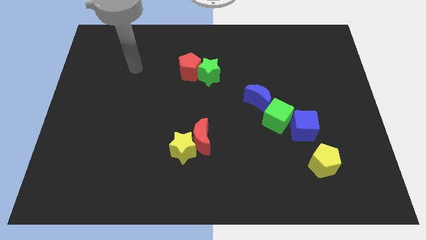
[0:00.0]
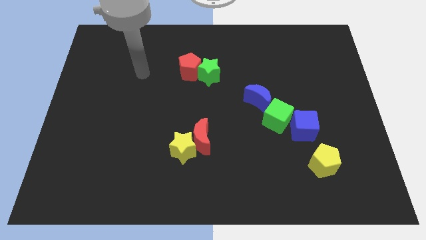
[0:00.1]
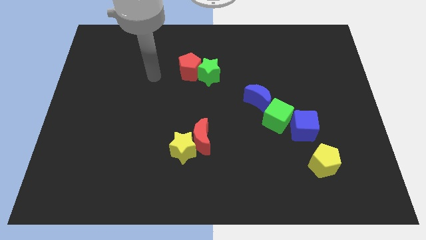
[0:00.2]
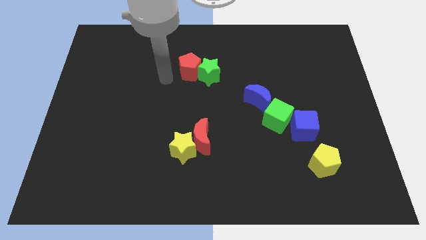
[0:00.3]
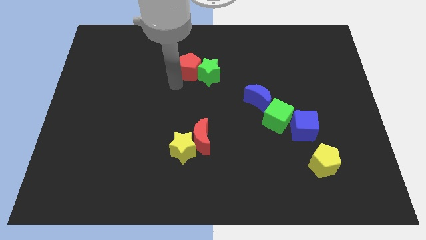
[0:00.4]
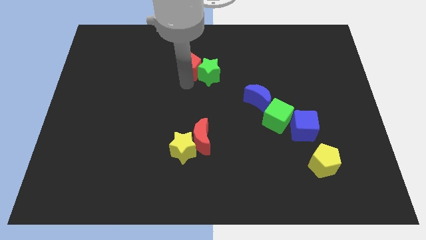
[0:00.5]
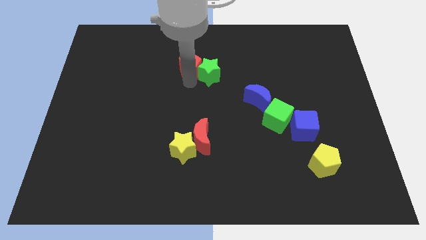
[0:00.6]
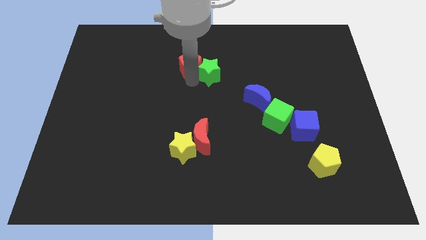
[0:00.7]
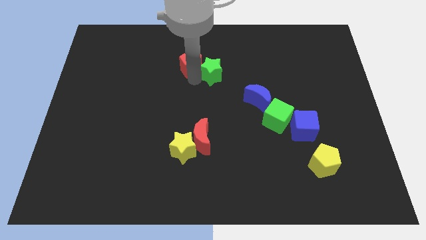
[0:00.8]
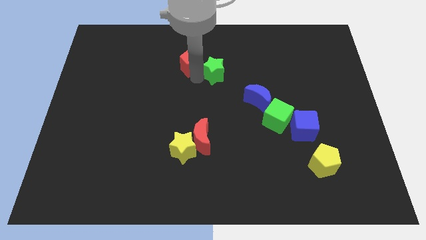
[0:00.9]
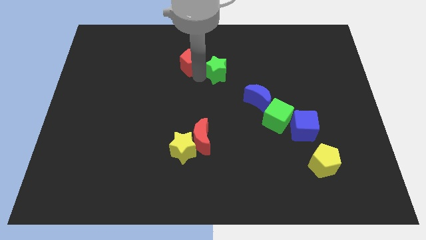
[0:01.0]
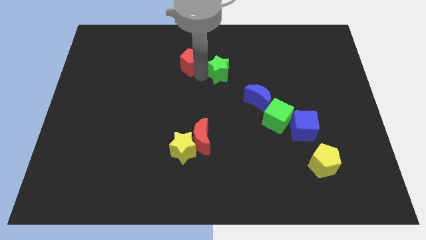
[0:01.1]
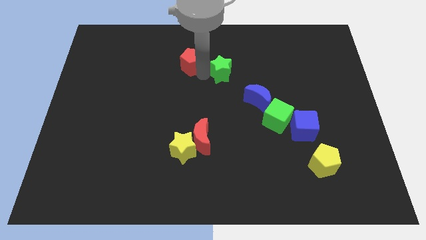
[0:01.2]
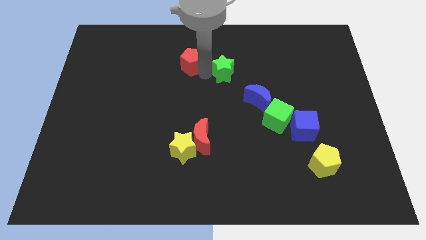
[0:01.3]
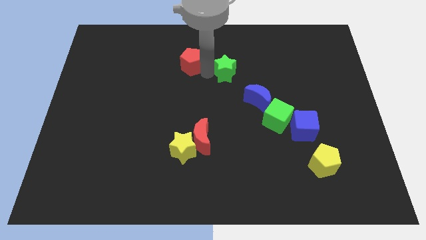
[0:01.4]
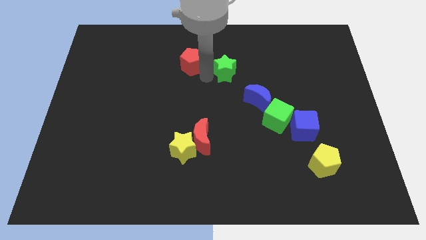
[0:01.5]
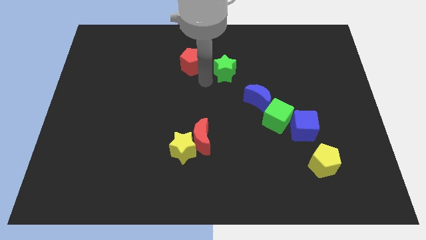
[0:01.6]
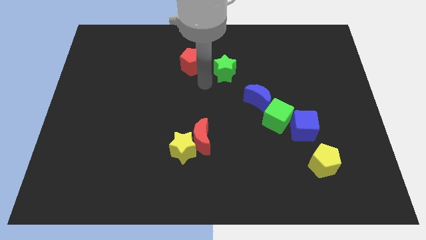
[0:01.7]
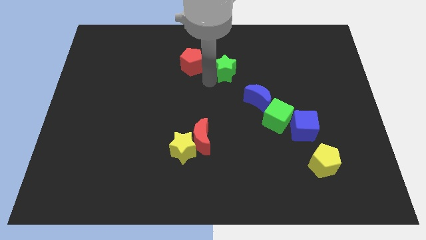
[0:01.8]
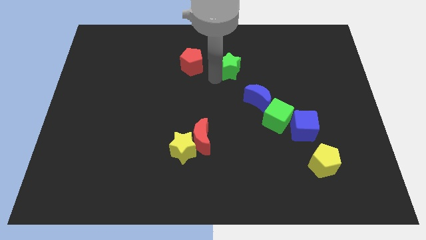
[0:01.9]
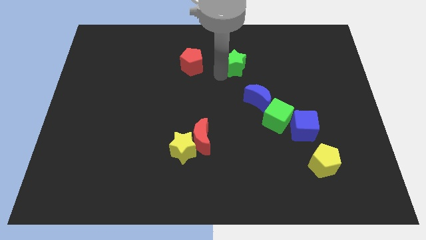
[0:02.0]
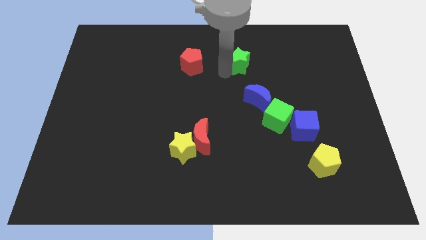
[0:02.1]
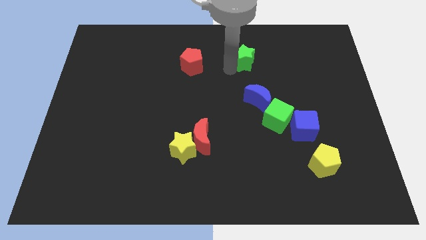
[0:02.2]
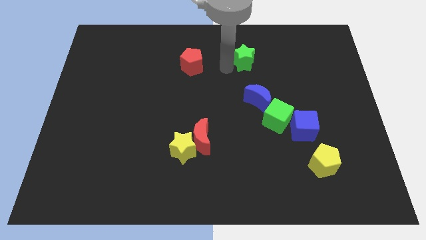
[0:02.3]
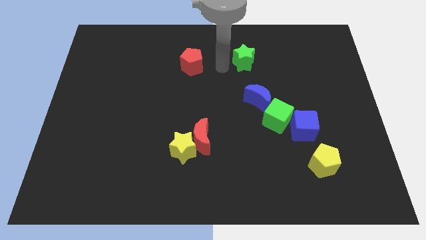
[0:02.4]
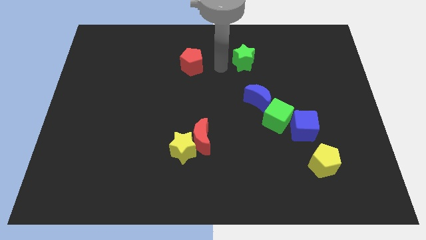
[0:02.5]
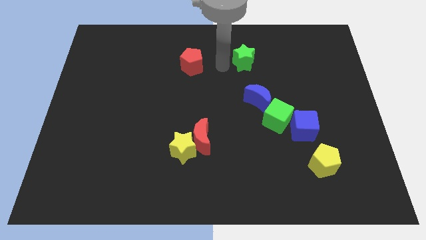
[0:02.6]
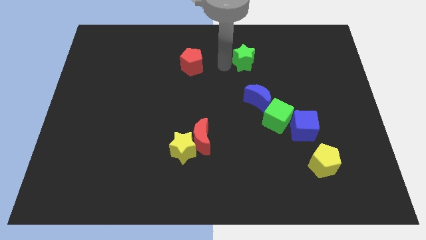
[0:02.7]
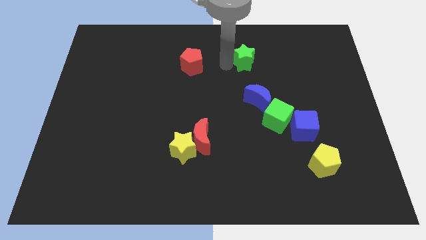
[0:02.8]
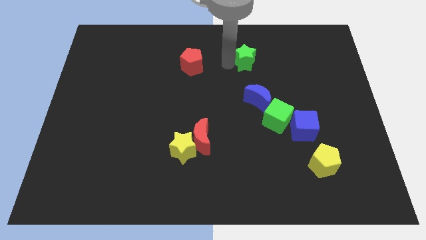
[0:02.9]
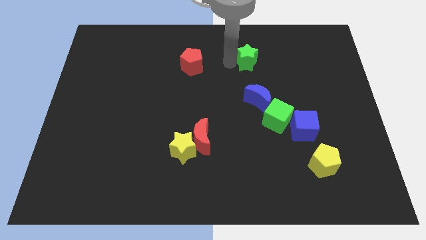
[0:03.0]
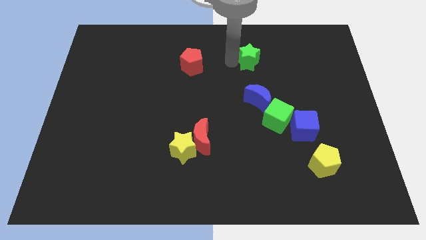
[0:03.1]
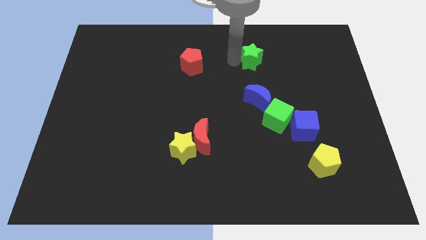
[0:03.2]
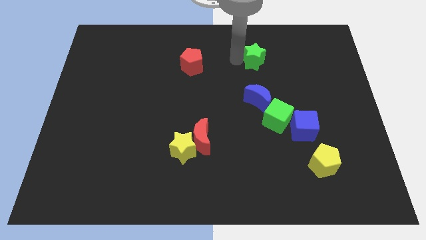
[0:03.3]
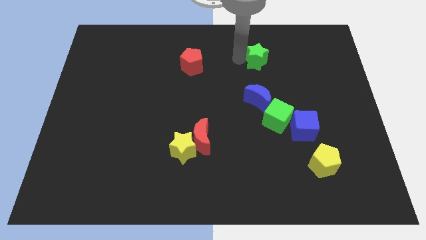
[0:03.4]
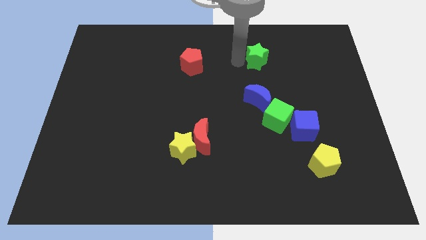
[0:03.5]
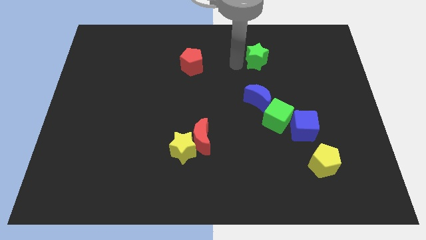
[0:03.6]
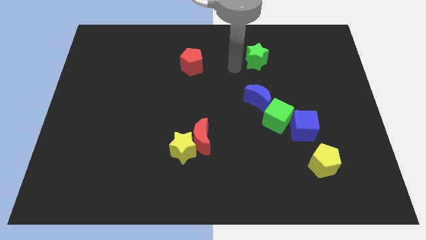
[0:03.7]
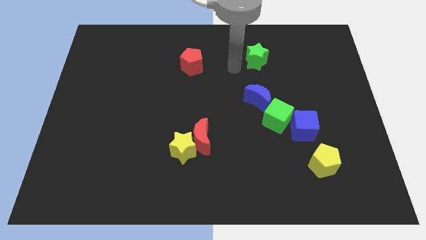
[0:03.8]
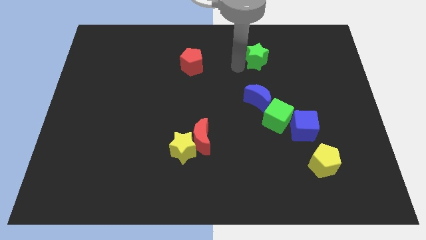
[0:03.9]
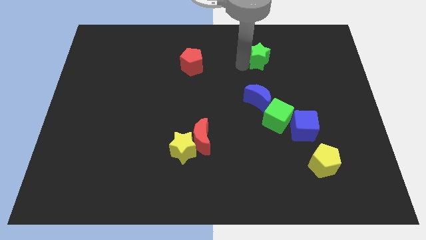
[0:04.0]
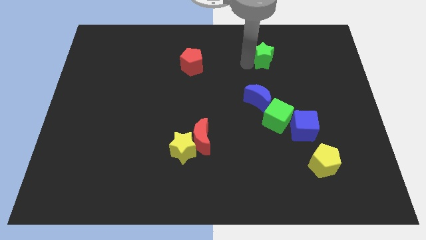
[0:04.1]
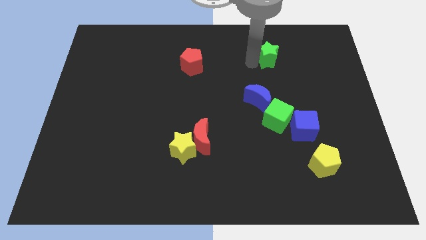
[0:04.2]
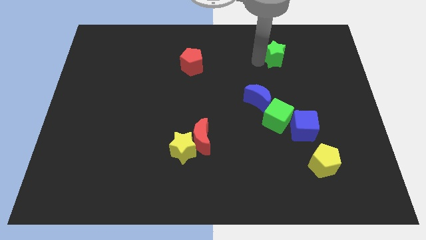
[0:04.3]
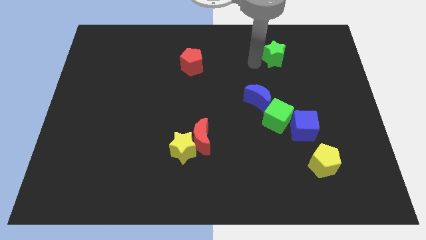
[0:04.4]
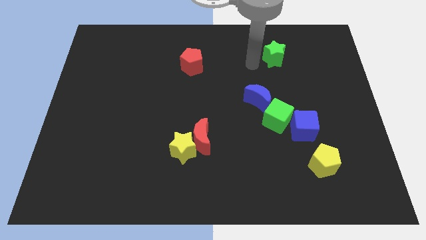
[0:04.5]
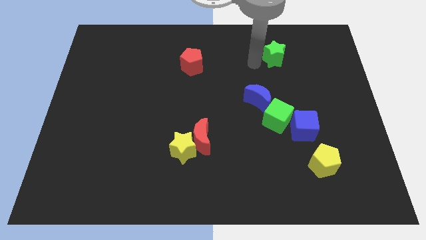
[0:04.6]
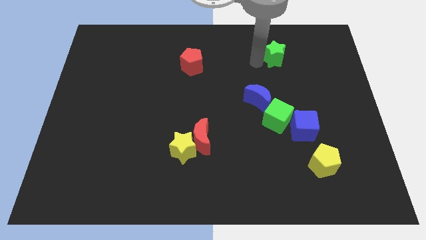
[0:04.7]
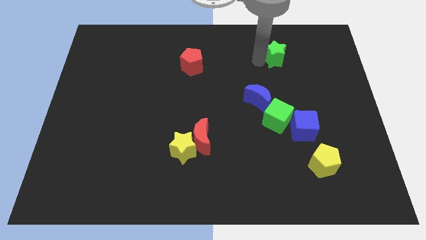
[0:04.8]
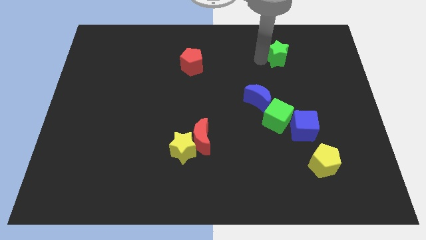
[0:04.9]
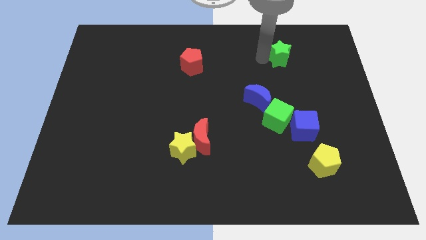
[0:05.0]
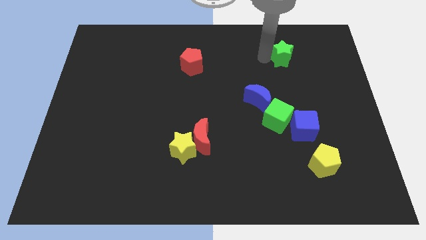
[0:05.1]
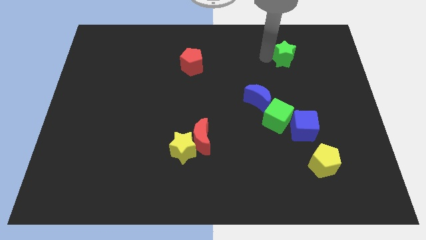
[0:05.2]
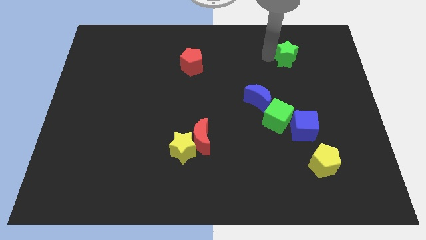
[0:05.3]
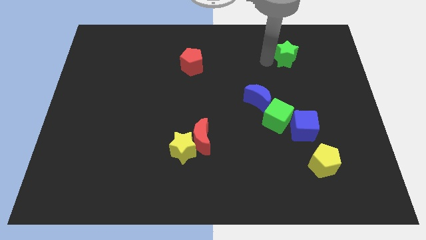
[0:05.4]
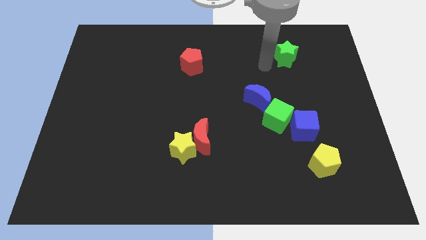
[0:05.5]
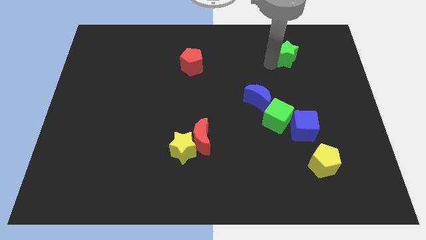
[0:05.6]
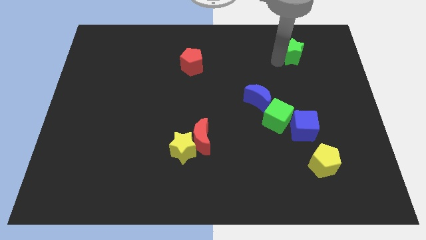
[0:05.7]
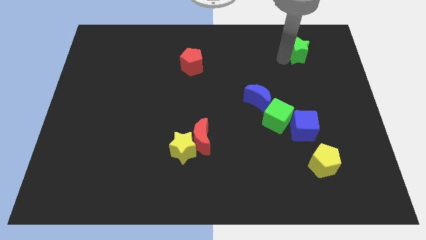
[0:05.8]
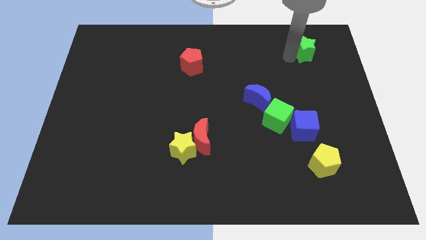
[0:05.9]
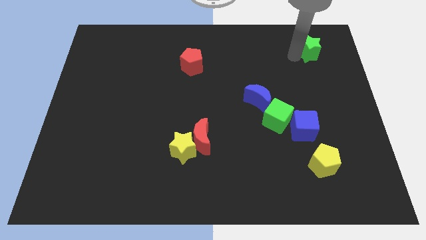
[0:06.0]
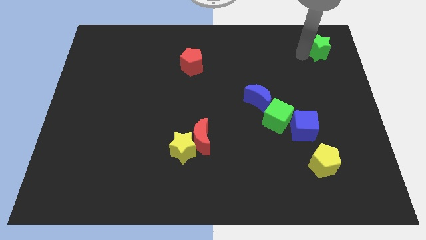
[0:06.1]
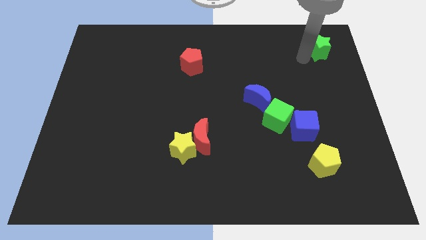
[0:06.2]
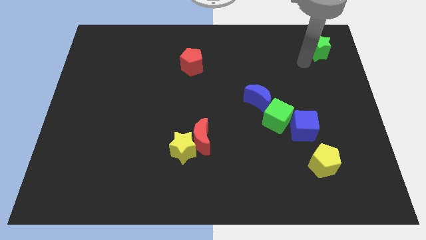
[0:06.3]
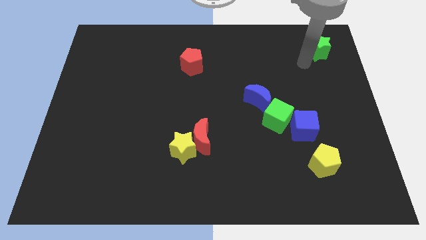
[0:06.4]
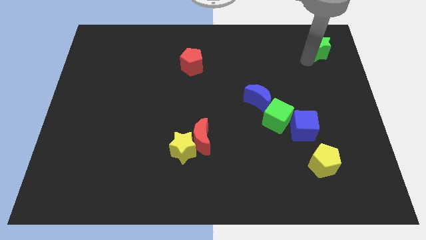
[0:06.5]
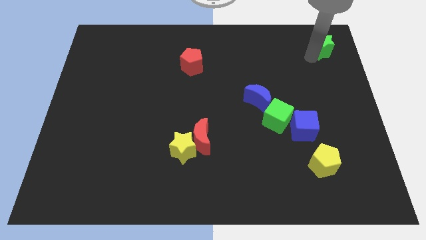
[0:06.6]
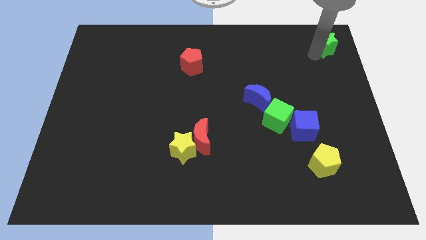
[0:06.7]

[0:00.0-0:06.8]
move the green star to the top right corner
